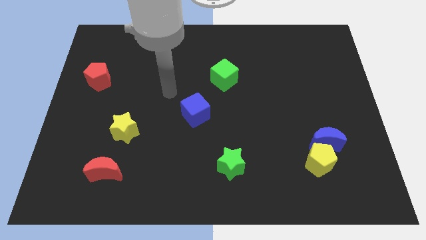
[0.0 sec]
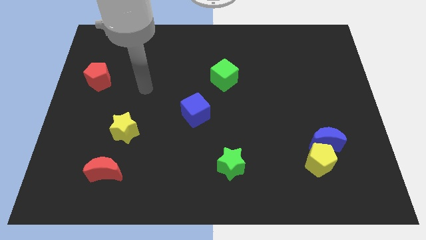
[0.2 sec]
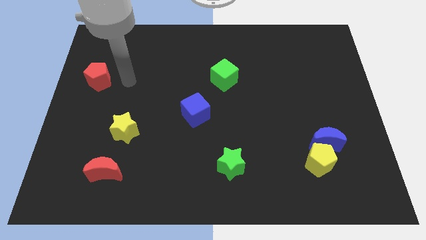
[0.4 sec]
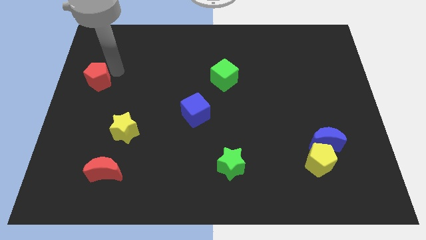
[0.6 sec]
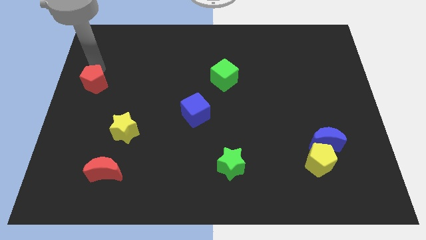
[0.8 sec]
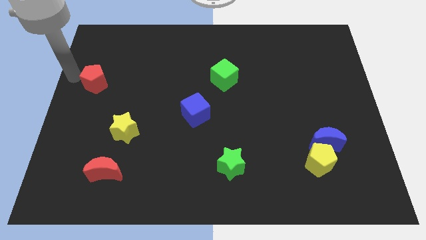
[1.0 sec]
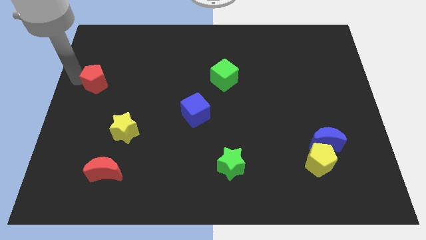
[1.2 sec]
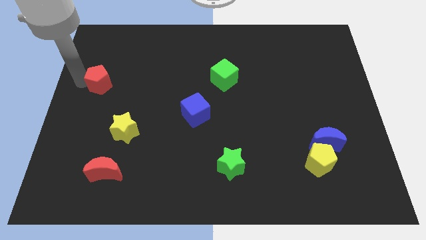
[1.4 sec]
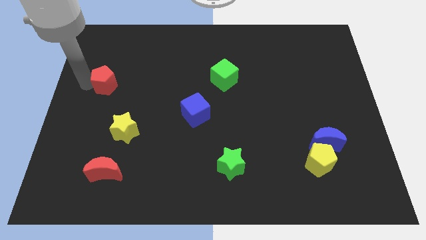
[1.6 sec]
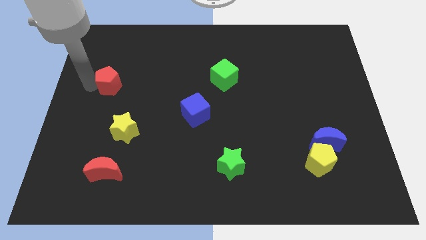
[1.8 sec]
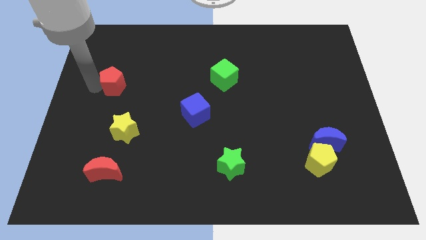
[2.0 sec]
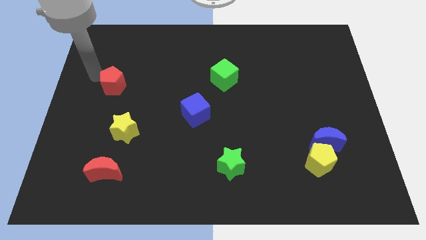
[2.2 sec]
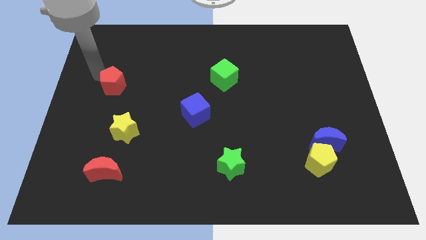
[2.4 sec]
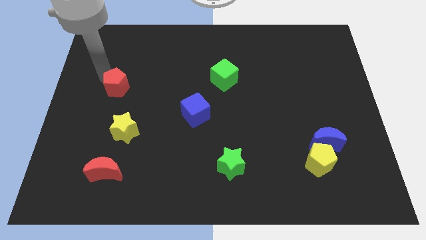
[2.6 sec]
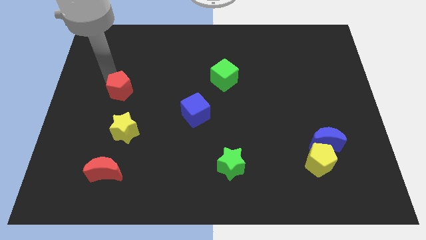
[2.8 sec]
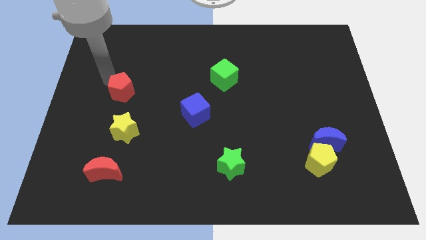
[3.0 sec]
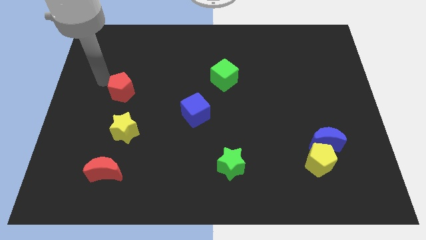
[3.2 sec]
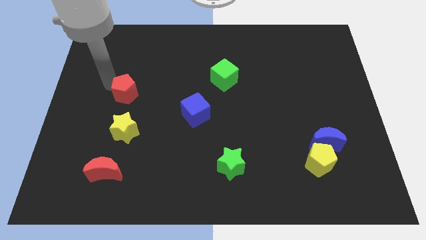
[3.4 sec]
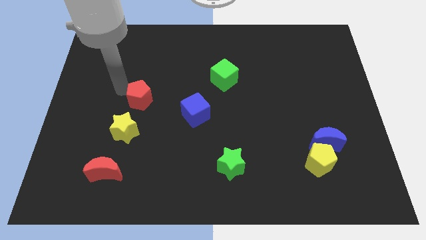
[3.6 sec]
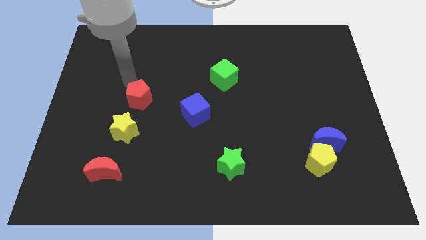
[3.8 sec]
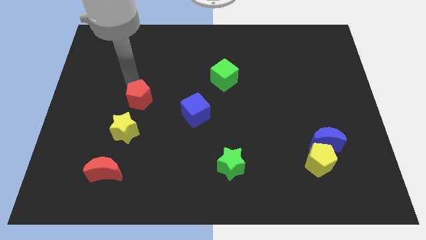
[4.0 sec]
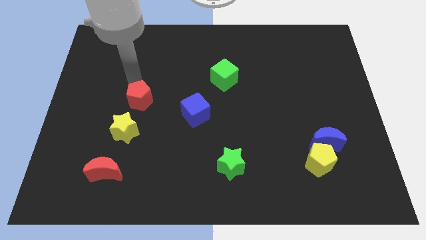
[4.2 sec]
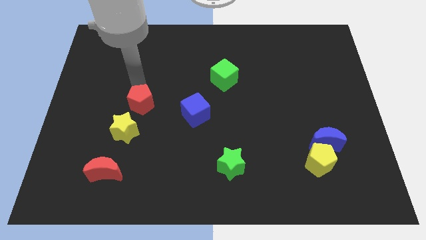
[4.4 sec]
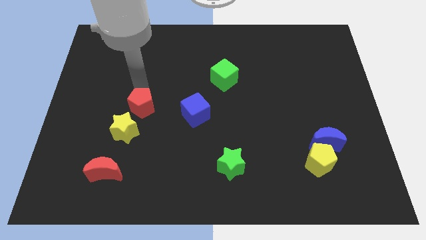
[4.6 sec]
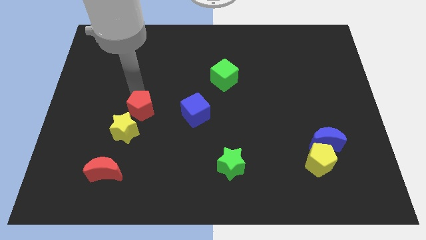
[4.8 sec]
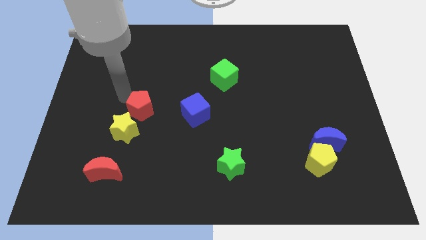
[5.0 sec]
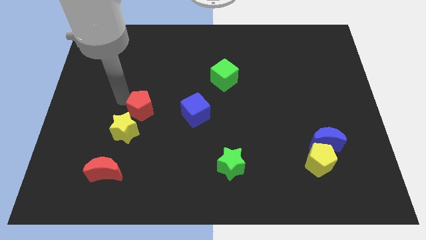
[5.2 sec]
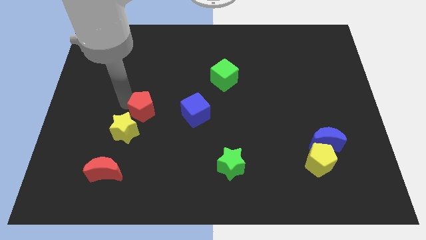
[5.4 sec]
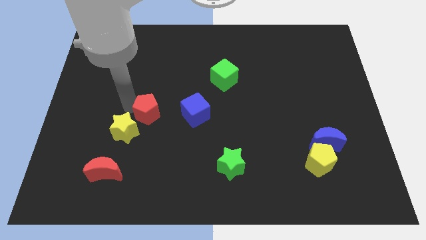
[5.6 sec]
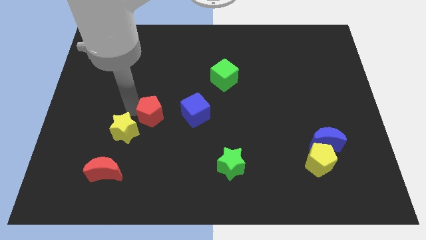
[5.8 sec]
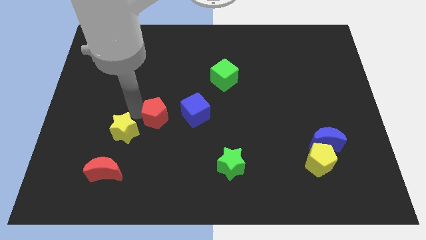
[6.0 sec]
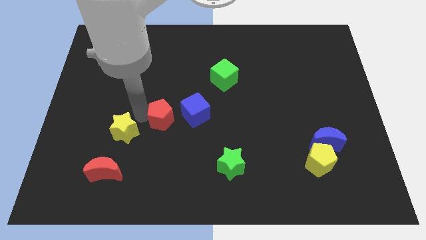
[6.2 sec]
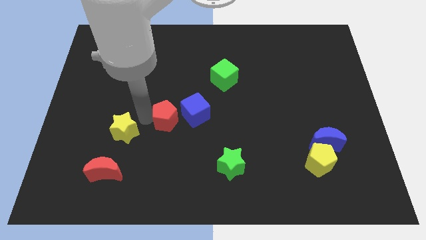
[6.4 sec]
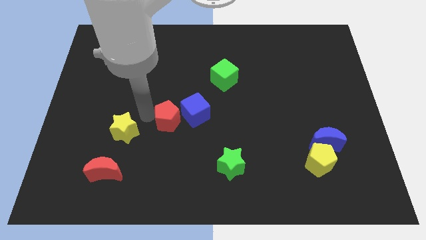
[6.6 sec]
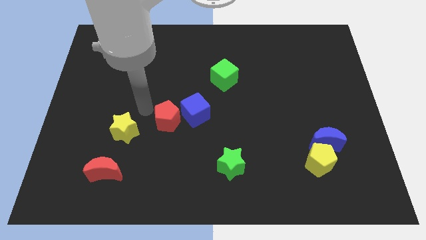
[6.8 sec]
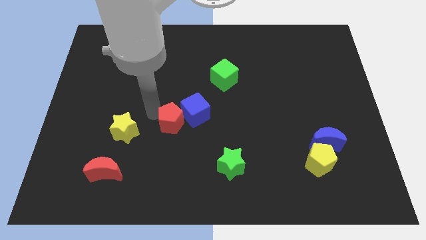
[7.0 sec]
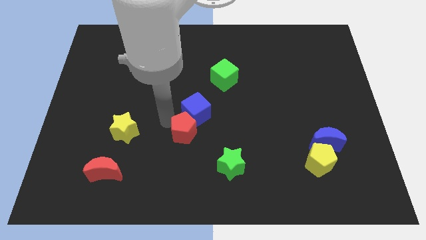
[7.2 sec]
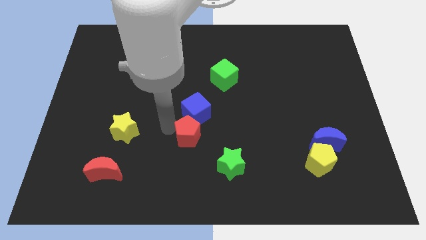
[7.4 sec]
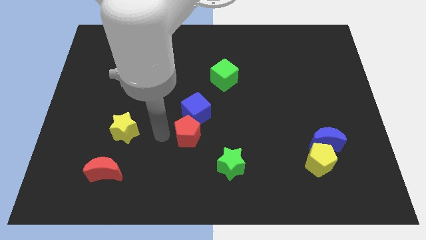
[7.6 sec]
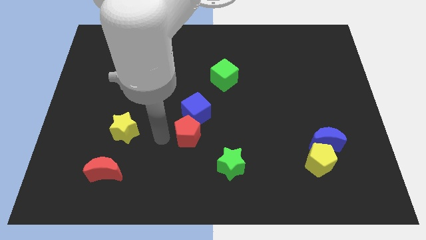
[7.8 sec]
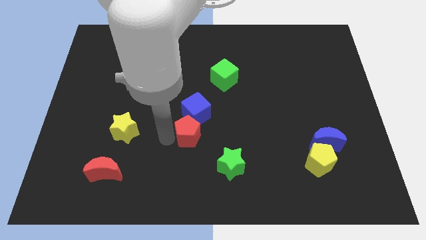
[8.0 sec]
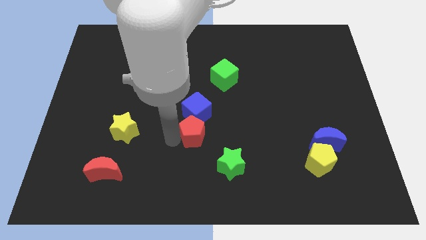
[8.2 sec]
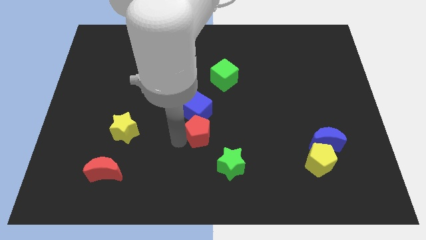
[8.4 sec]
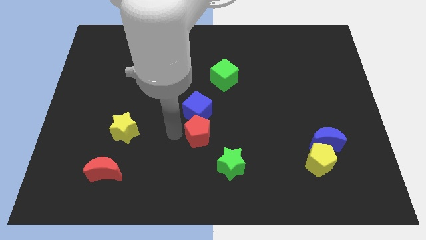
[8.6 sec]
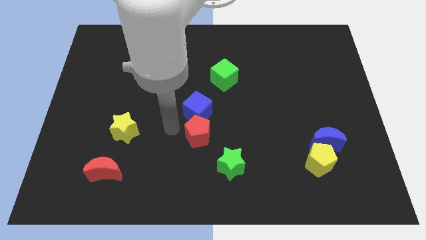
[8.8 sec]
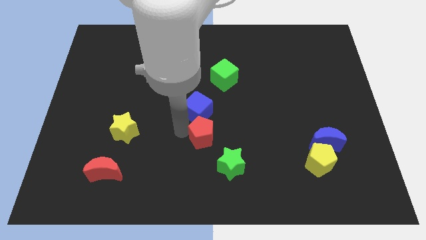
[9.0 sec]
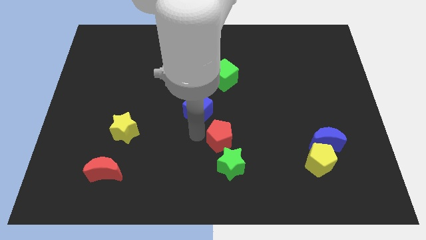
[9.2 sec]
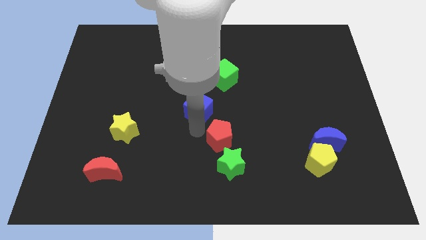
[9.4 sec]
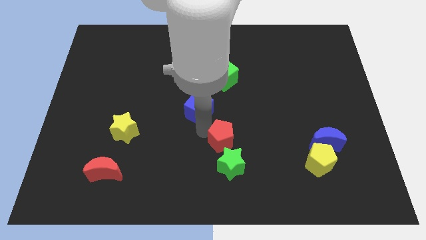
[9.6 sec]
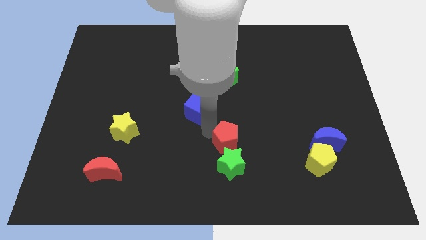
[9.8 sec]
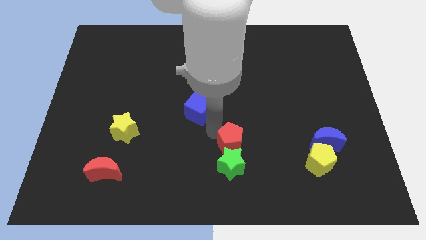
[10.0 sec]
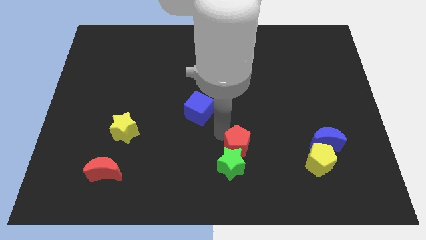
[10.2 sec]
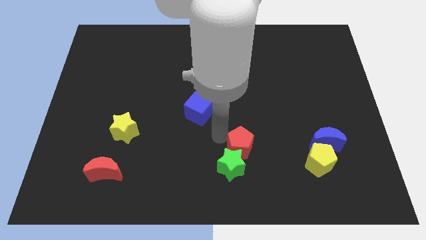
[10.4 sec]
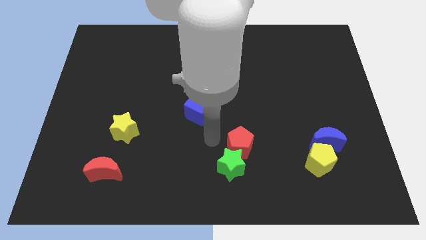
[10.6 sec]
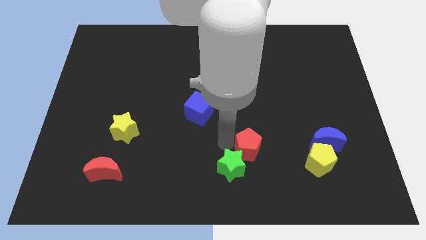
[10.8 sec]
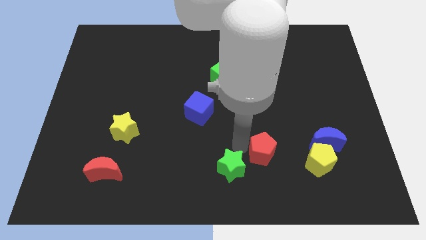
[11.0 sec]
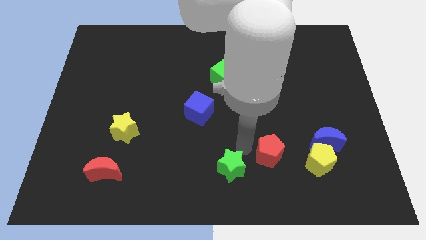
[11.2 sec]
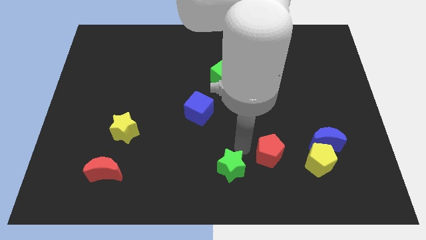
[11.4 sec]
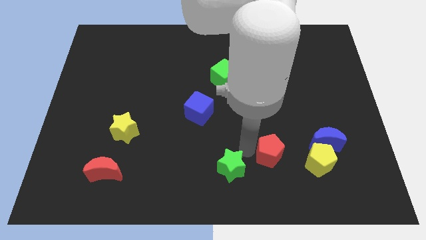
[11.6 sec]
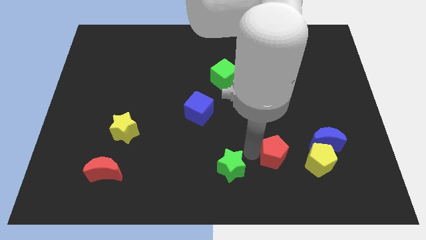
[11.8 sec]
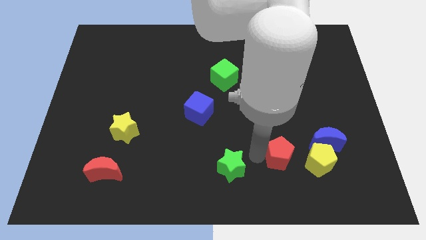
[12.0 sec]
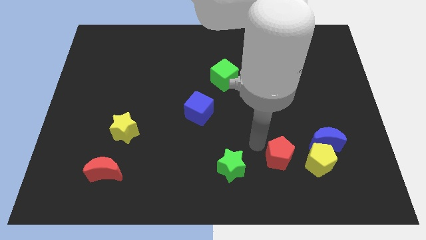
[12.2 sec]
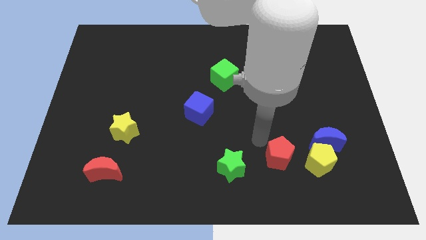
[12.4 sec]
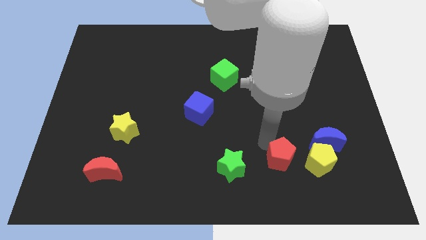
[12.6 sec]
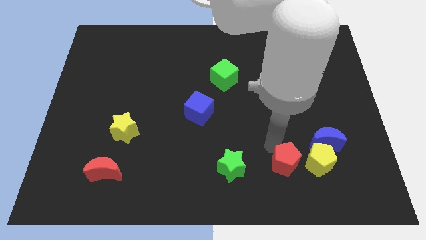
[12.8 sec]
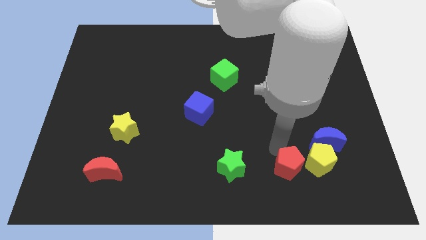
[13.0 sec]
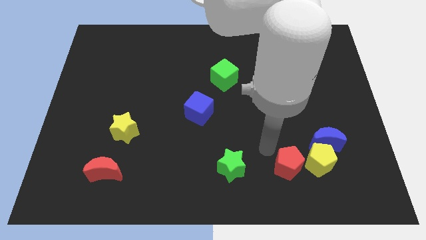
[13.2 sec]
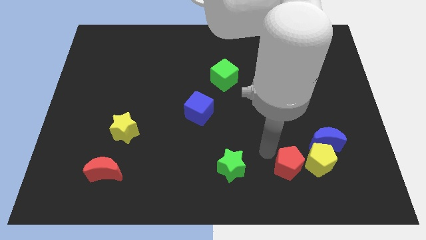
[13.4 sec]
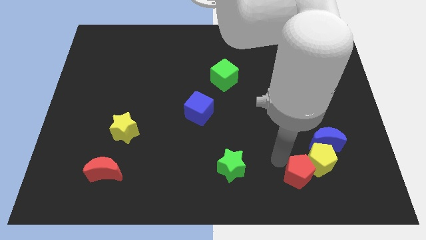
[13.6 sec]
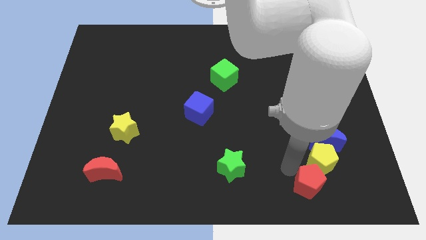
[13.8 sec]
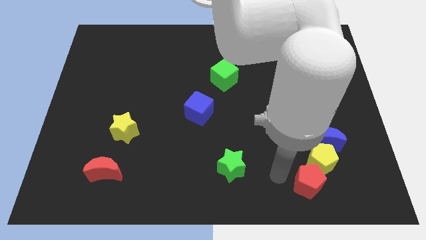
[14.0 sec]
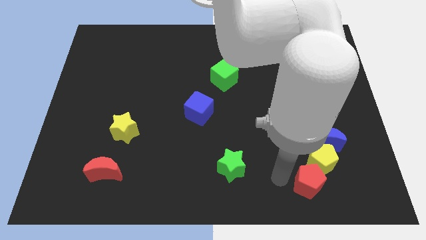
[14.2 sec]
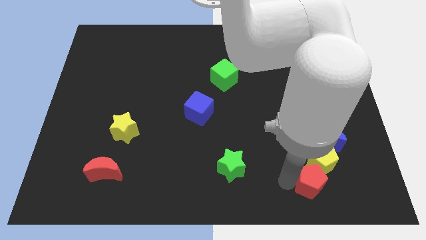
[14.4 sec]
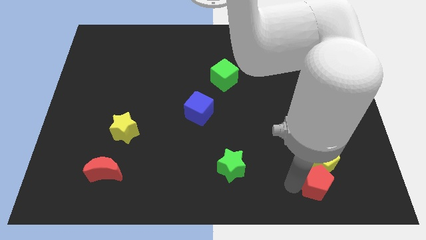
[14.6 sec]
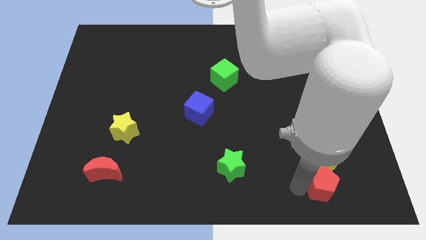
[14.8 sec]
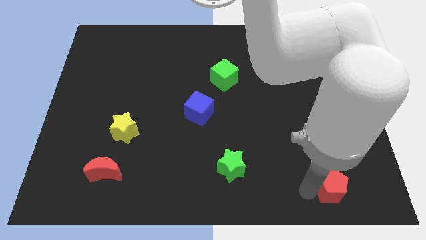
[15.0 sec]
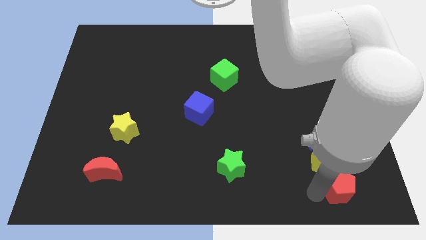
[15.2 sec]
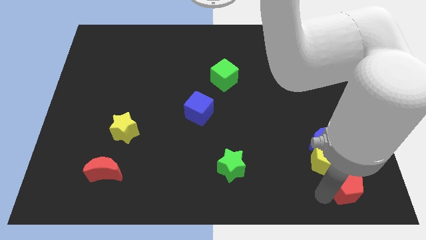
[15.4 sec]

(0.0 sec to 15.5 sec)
slide the red pentagon to the lower right corner
